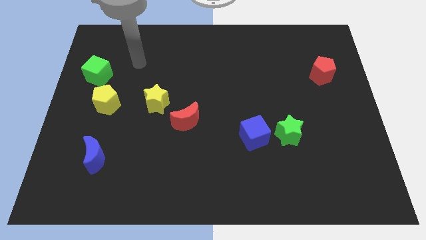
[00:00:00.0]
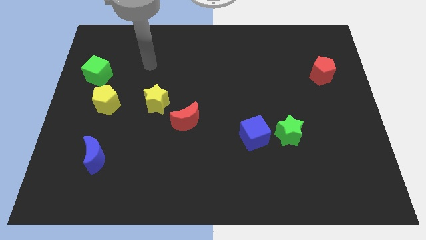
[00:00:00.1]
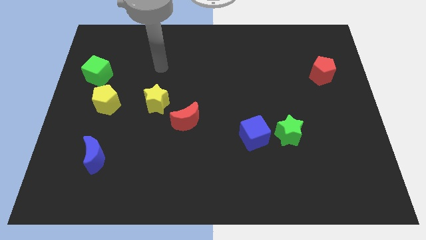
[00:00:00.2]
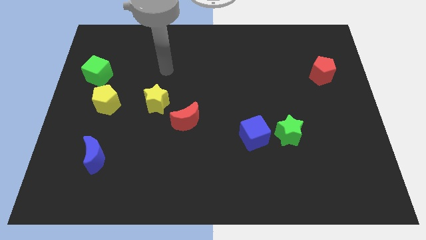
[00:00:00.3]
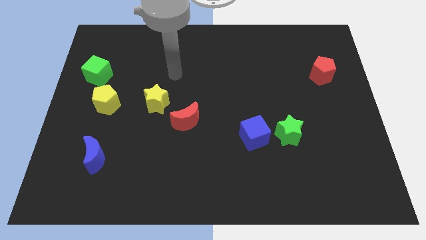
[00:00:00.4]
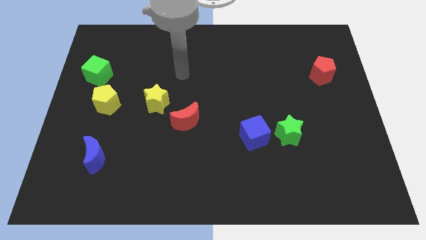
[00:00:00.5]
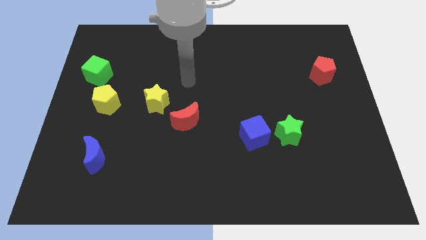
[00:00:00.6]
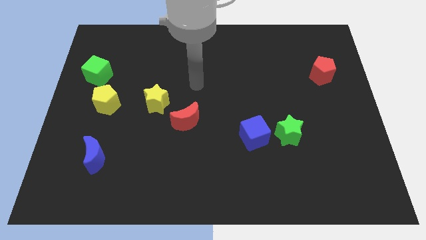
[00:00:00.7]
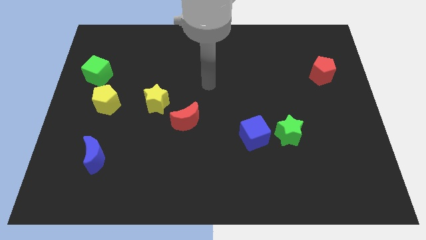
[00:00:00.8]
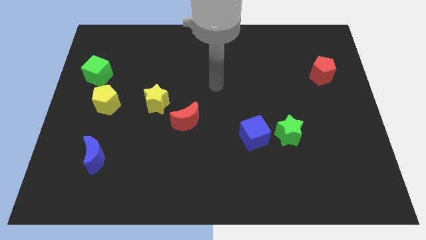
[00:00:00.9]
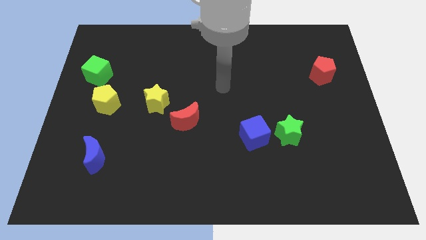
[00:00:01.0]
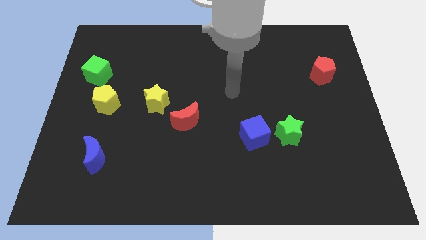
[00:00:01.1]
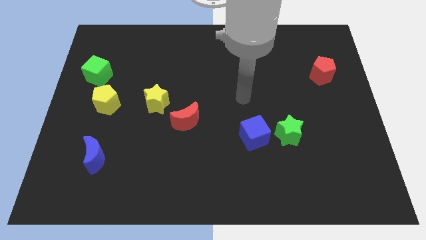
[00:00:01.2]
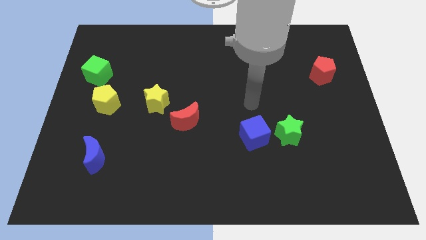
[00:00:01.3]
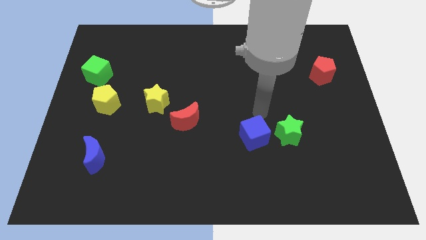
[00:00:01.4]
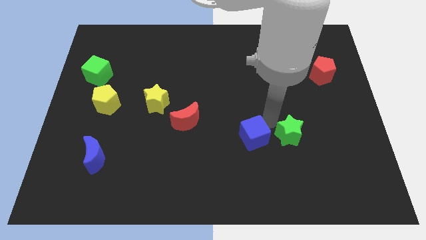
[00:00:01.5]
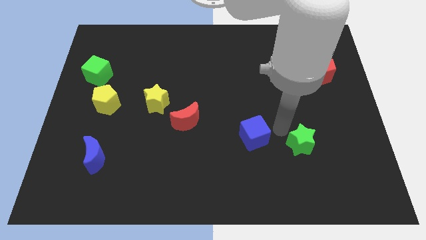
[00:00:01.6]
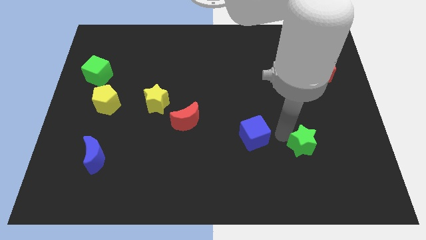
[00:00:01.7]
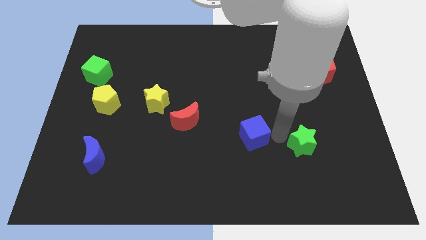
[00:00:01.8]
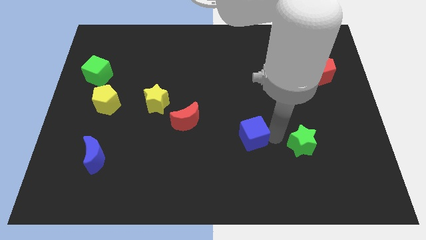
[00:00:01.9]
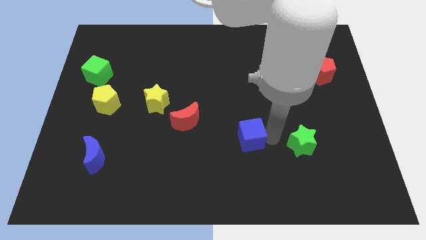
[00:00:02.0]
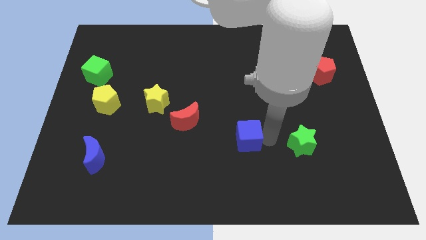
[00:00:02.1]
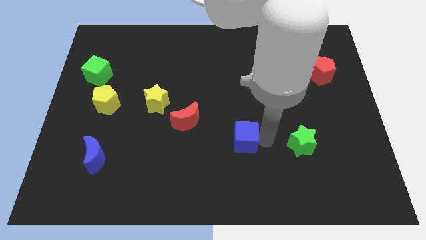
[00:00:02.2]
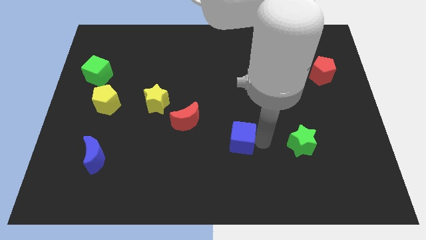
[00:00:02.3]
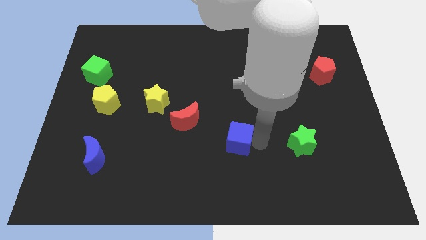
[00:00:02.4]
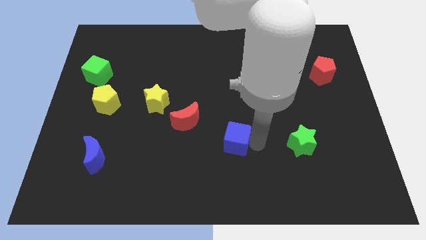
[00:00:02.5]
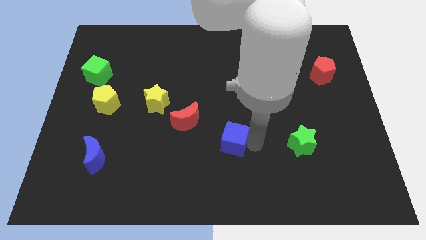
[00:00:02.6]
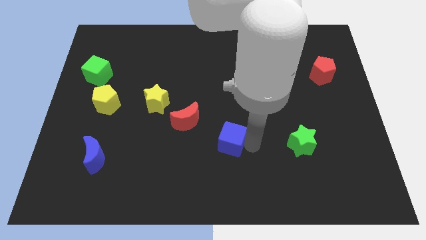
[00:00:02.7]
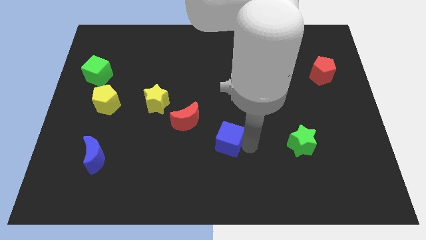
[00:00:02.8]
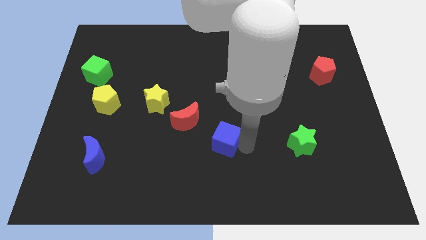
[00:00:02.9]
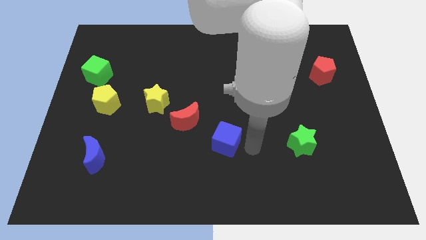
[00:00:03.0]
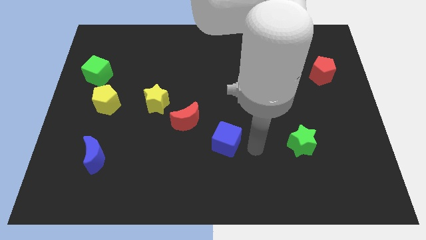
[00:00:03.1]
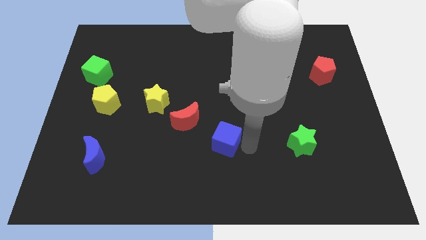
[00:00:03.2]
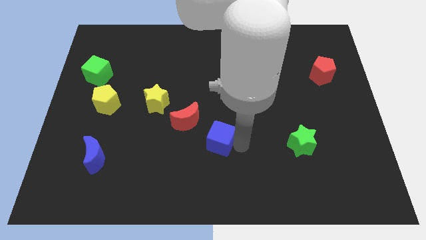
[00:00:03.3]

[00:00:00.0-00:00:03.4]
move the blue cube somewhat left

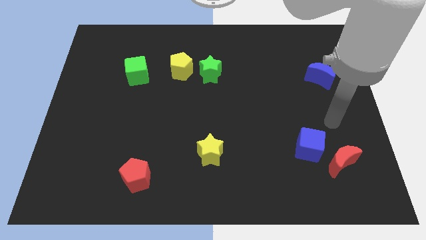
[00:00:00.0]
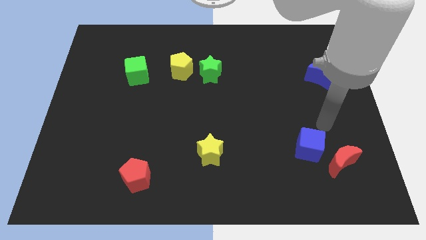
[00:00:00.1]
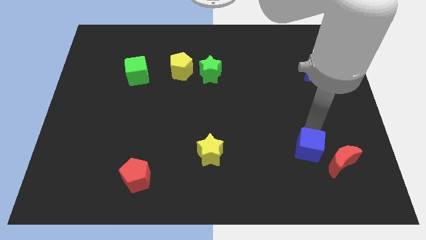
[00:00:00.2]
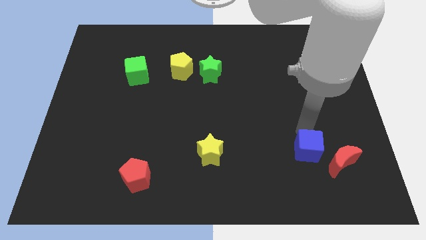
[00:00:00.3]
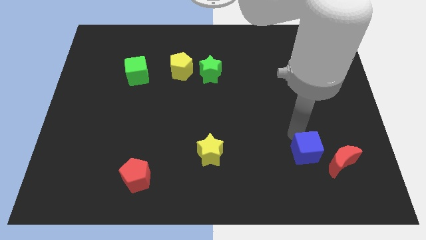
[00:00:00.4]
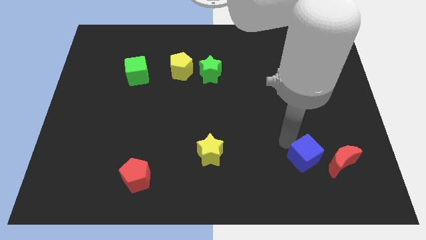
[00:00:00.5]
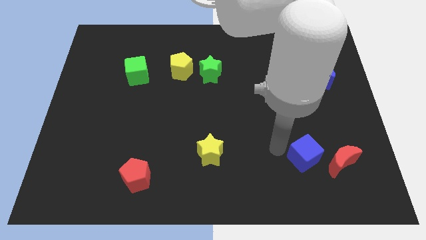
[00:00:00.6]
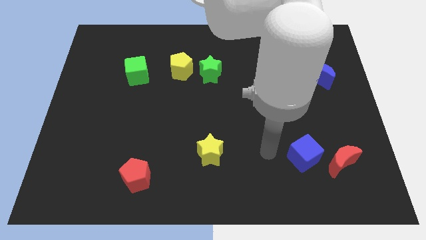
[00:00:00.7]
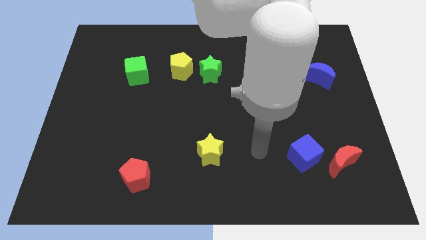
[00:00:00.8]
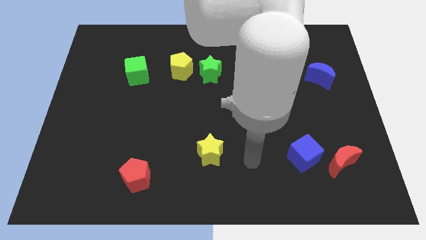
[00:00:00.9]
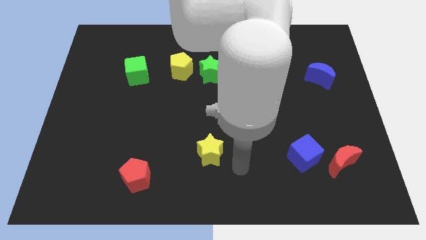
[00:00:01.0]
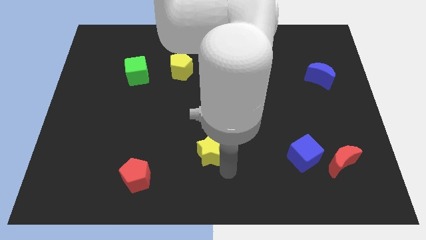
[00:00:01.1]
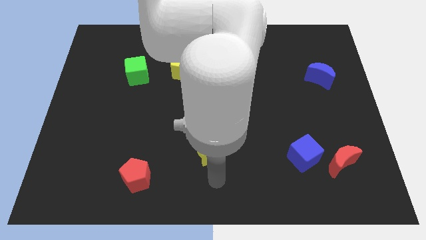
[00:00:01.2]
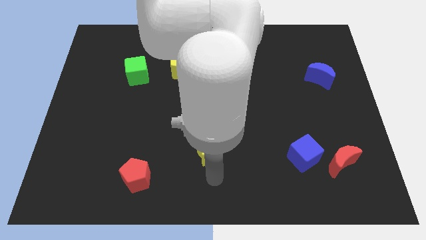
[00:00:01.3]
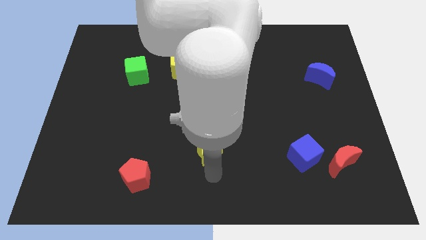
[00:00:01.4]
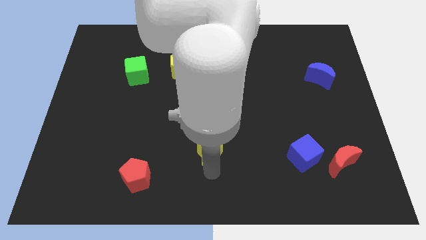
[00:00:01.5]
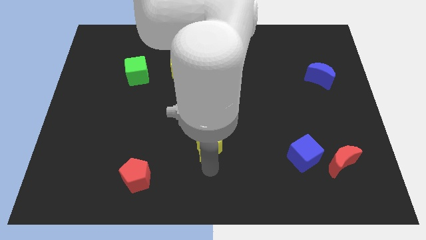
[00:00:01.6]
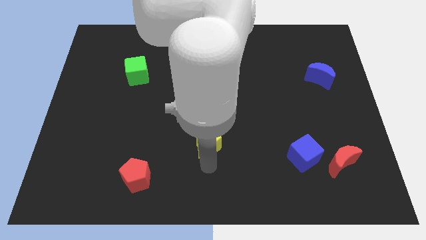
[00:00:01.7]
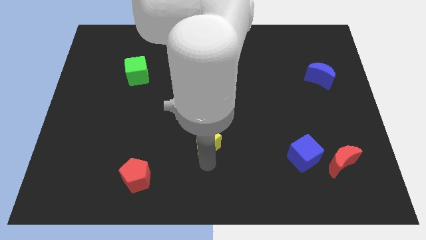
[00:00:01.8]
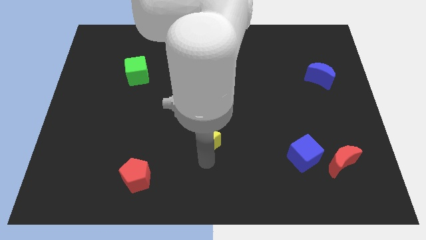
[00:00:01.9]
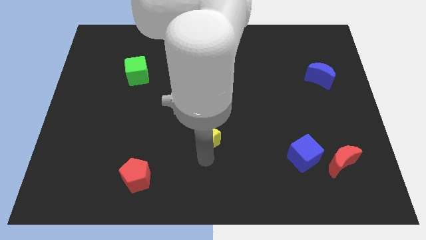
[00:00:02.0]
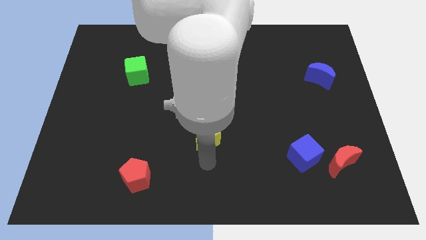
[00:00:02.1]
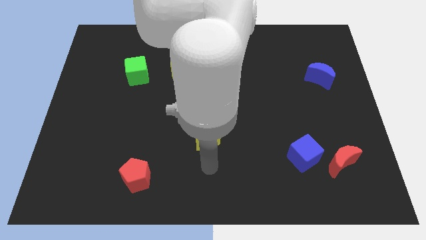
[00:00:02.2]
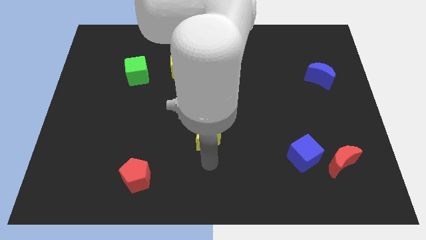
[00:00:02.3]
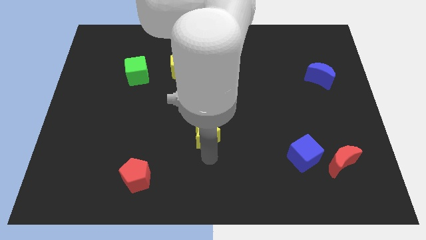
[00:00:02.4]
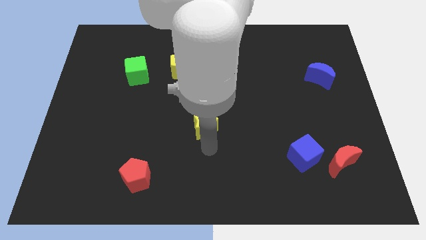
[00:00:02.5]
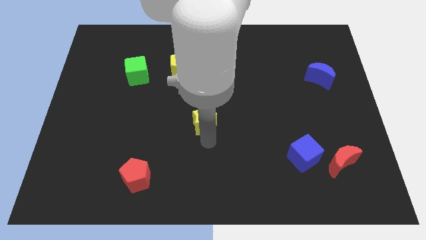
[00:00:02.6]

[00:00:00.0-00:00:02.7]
push the yellow star somewhat up

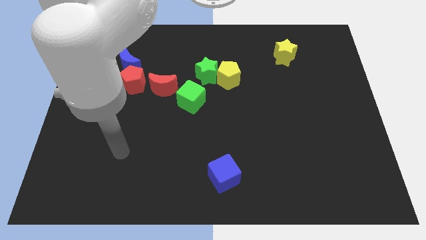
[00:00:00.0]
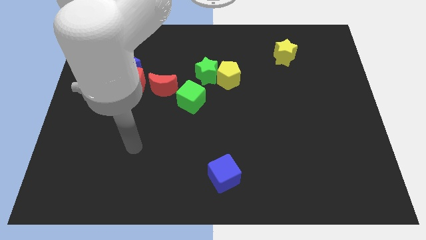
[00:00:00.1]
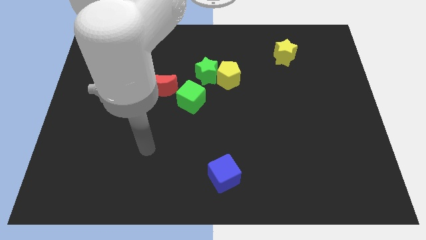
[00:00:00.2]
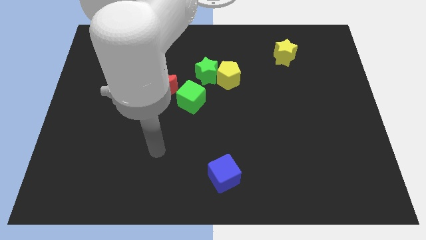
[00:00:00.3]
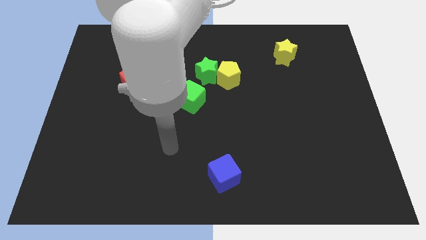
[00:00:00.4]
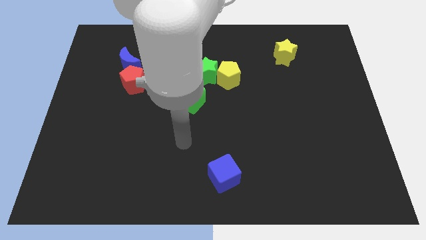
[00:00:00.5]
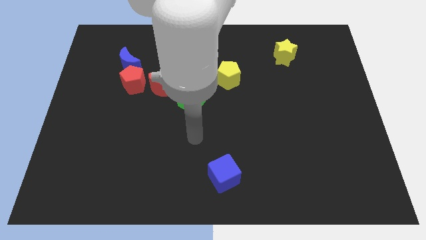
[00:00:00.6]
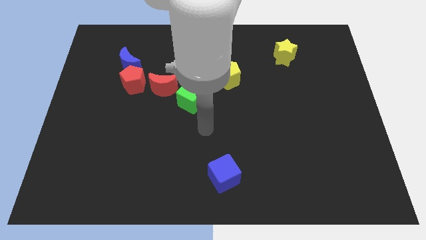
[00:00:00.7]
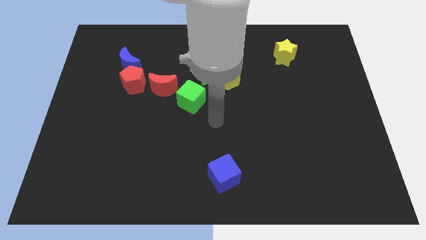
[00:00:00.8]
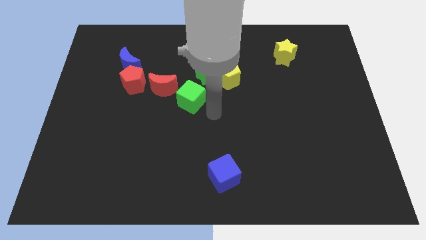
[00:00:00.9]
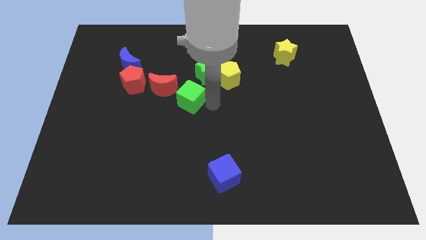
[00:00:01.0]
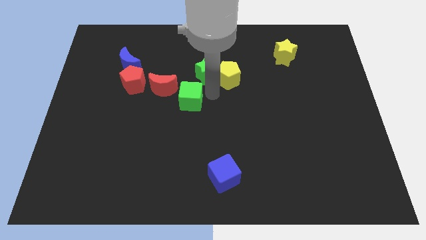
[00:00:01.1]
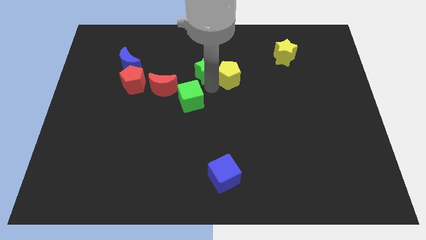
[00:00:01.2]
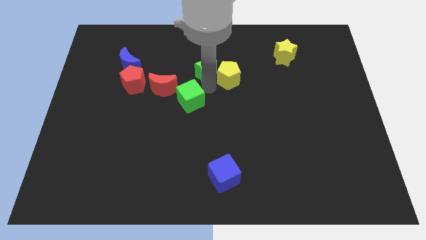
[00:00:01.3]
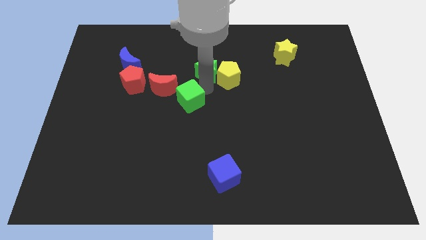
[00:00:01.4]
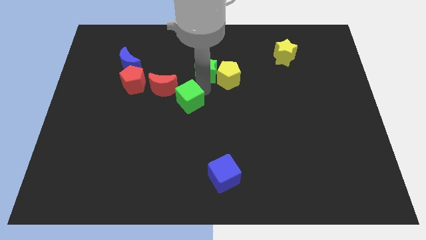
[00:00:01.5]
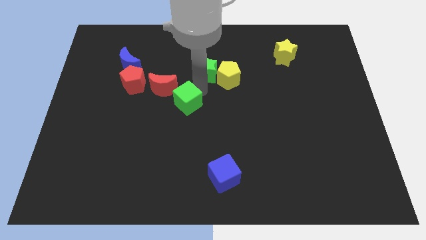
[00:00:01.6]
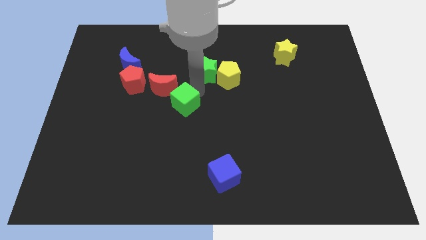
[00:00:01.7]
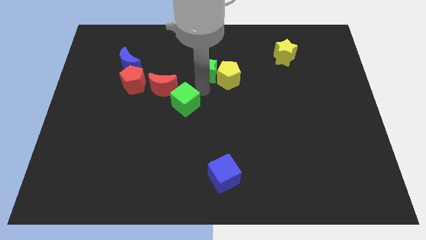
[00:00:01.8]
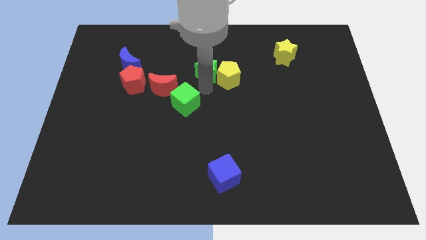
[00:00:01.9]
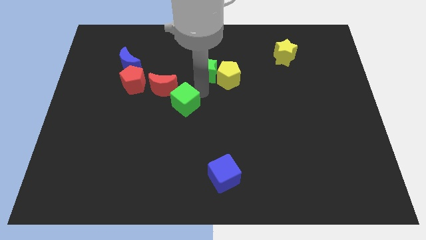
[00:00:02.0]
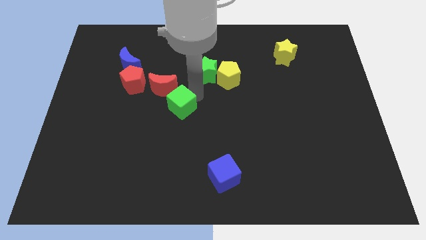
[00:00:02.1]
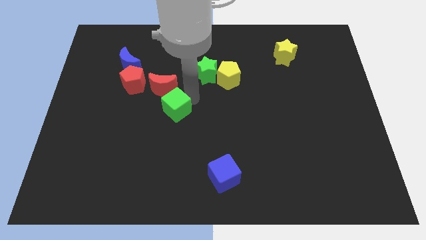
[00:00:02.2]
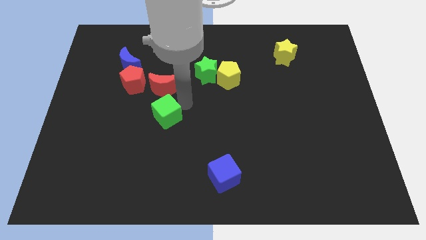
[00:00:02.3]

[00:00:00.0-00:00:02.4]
slightly move the green cube downwards and to the left
